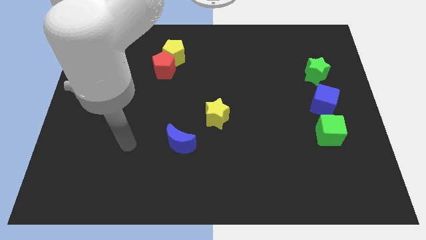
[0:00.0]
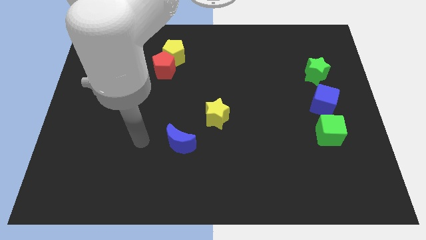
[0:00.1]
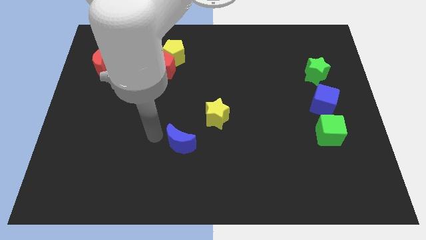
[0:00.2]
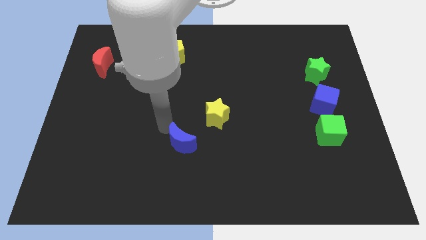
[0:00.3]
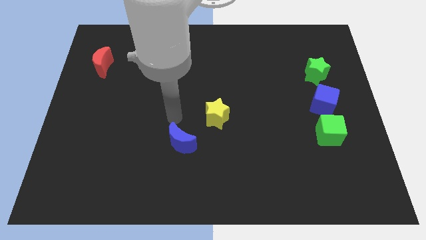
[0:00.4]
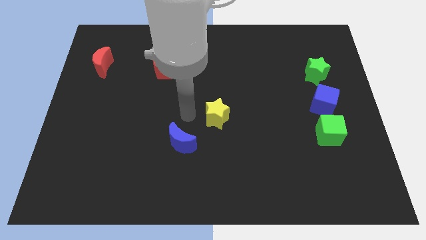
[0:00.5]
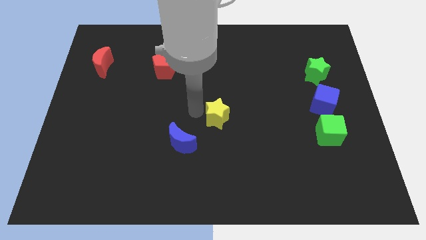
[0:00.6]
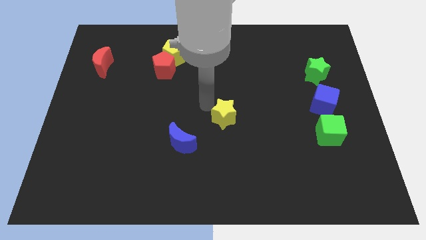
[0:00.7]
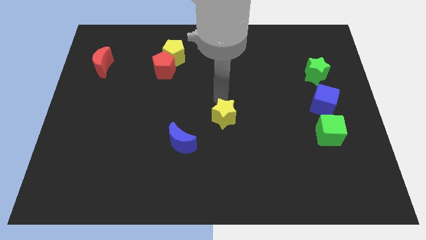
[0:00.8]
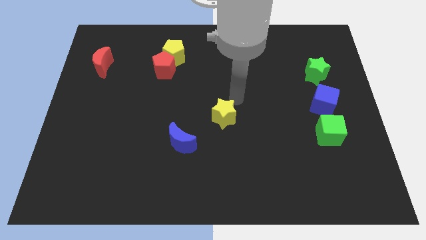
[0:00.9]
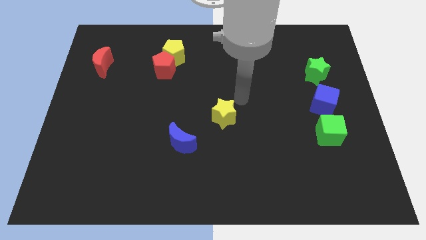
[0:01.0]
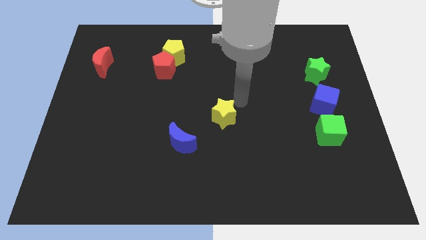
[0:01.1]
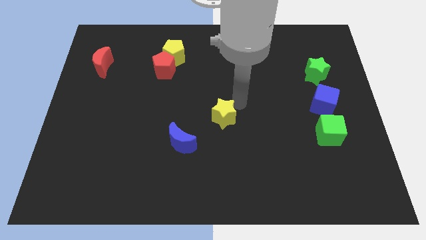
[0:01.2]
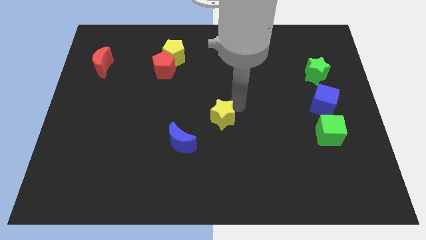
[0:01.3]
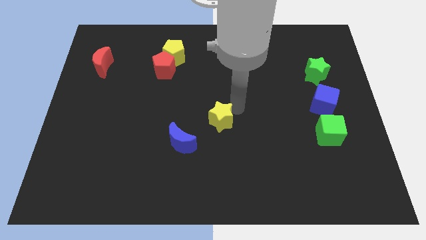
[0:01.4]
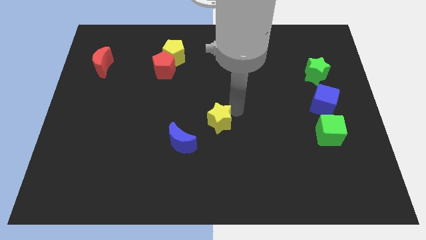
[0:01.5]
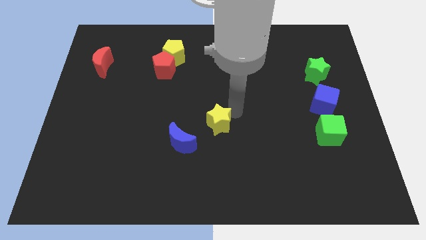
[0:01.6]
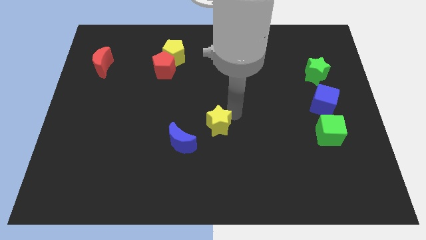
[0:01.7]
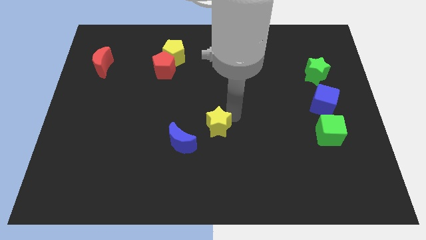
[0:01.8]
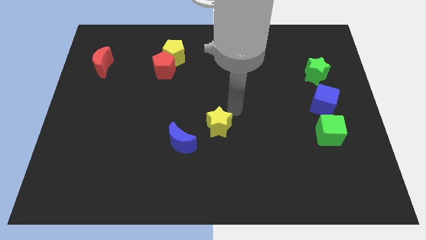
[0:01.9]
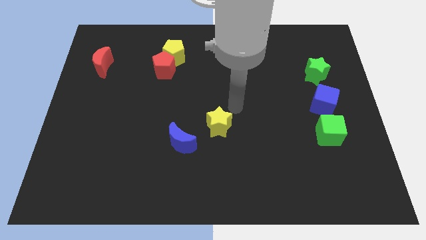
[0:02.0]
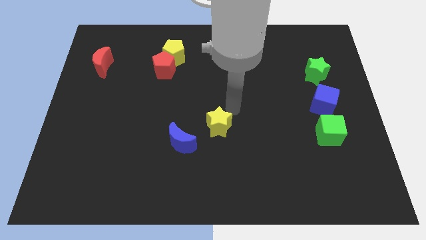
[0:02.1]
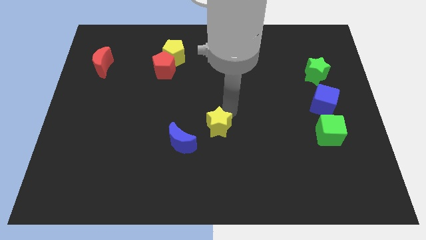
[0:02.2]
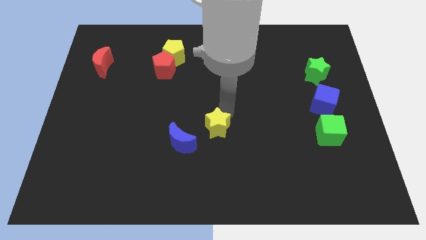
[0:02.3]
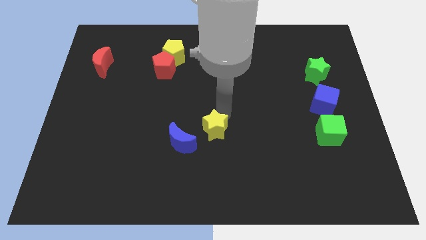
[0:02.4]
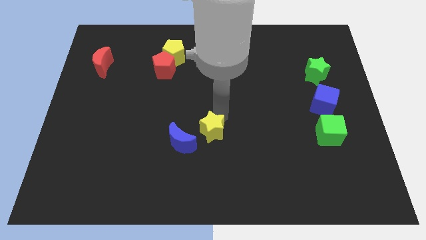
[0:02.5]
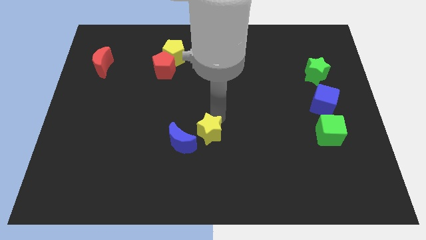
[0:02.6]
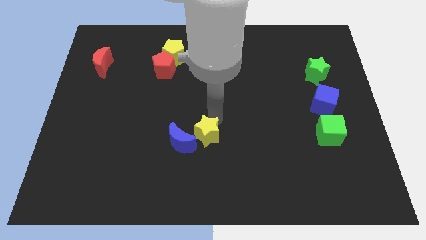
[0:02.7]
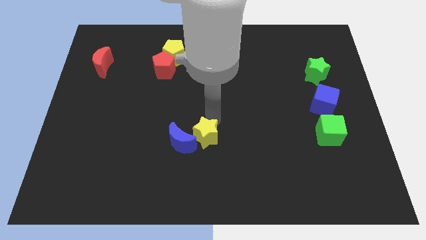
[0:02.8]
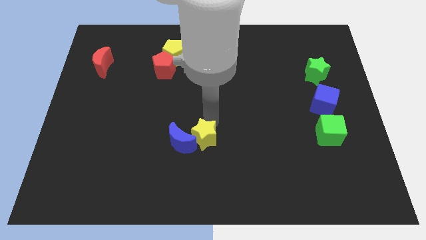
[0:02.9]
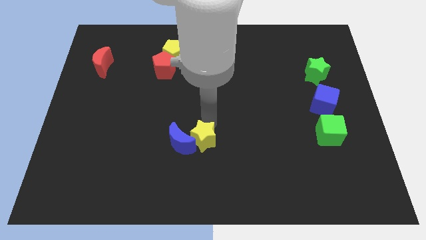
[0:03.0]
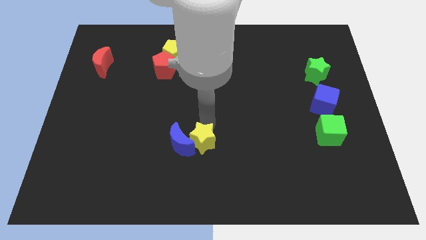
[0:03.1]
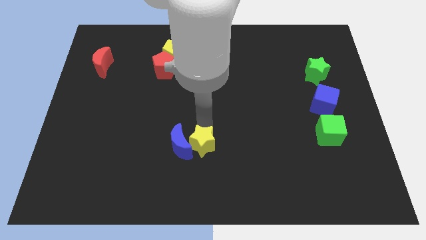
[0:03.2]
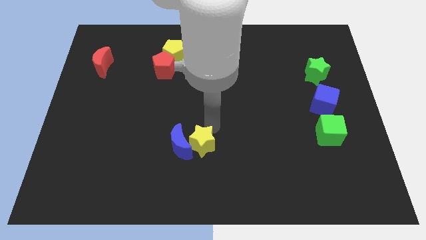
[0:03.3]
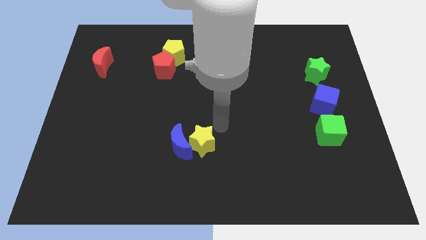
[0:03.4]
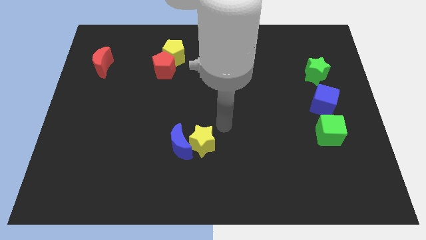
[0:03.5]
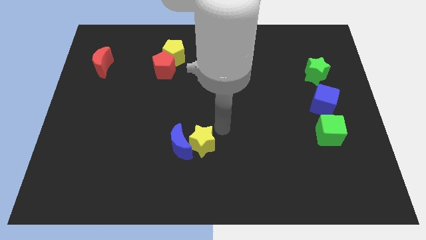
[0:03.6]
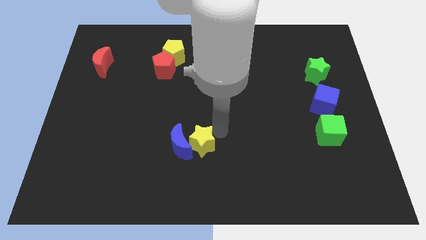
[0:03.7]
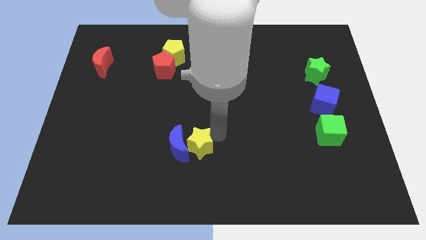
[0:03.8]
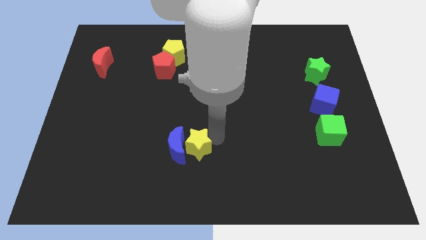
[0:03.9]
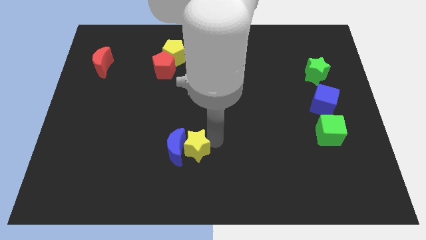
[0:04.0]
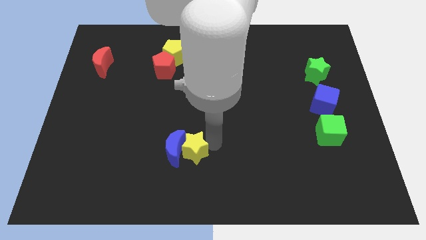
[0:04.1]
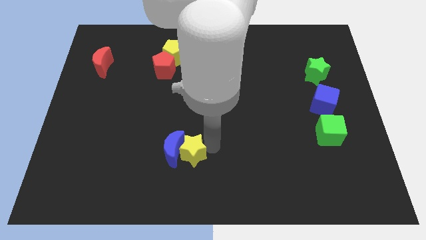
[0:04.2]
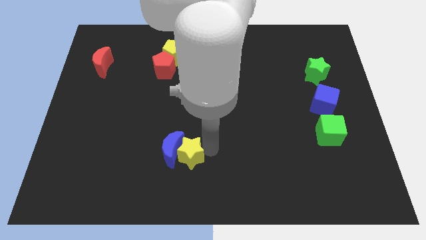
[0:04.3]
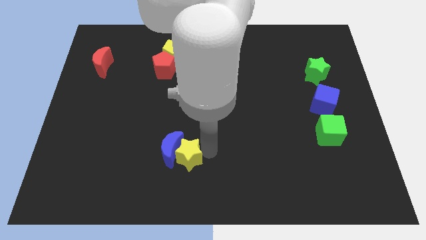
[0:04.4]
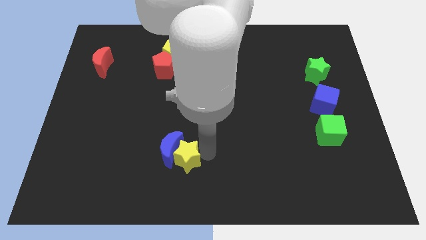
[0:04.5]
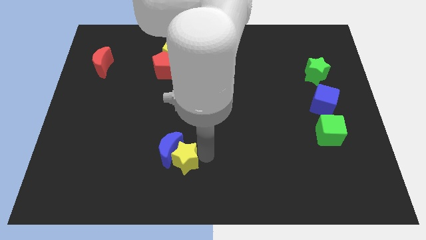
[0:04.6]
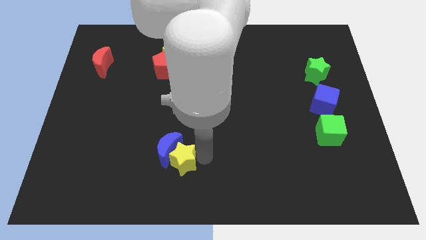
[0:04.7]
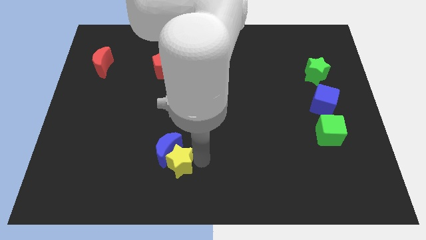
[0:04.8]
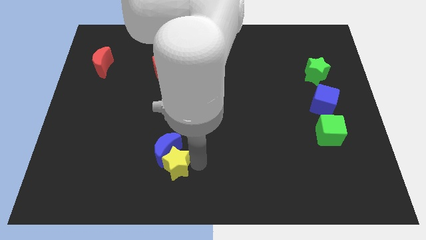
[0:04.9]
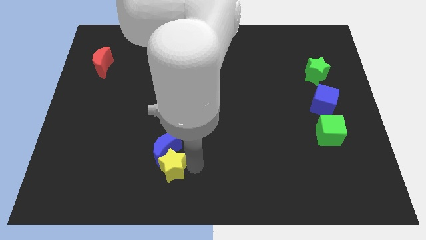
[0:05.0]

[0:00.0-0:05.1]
move the yellow star to the bottom left side of the blue moon

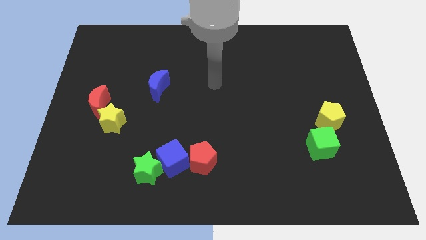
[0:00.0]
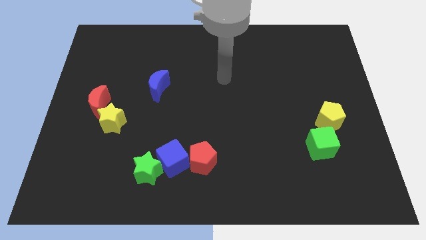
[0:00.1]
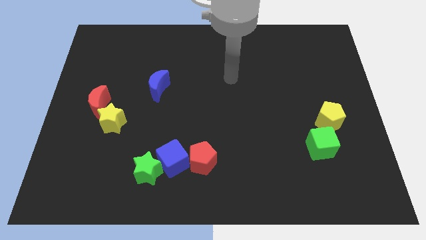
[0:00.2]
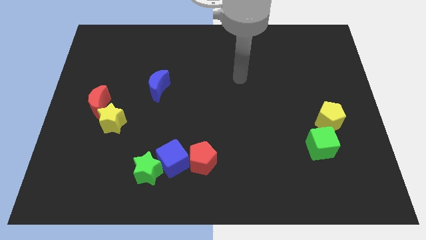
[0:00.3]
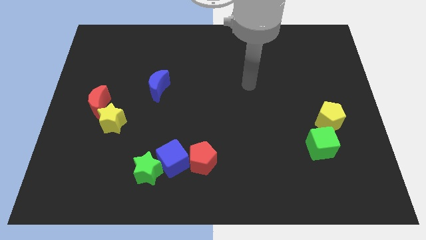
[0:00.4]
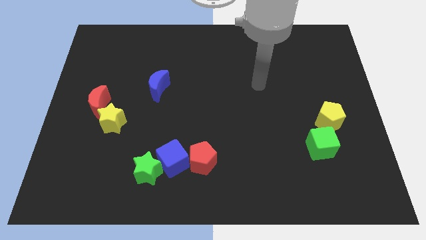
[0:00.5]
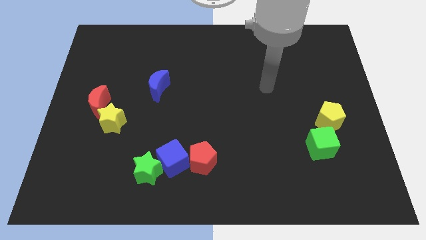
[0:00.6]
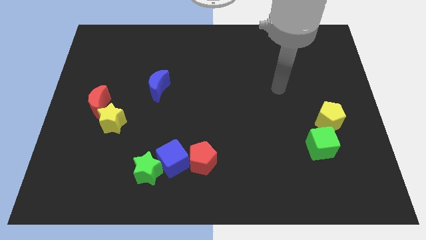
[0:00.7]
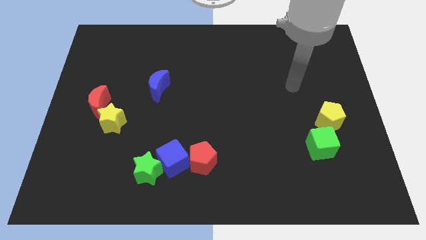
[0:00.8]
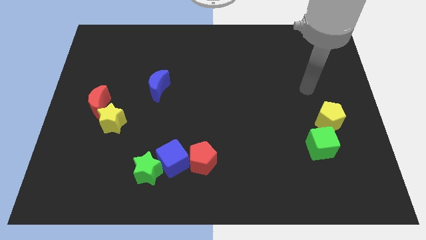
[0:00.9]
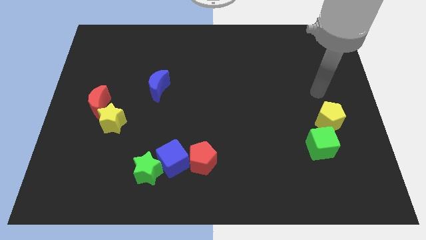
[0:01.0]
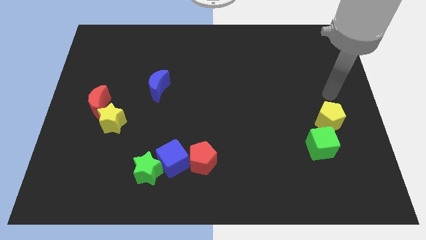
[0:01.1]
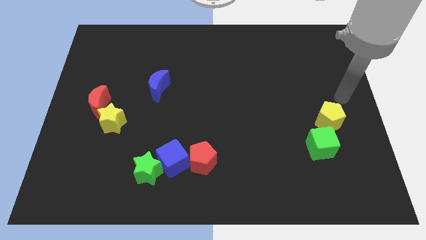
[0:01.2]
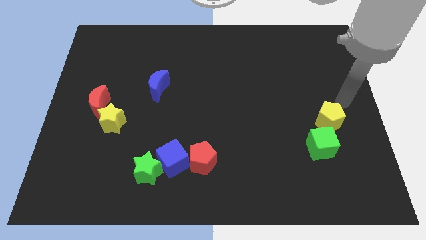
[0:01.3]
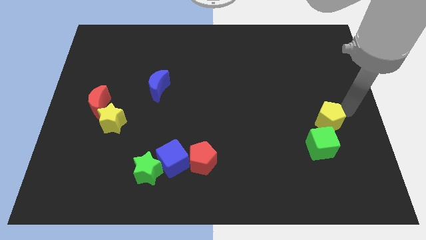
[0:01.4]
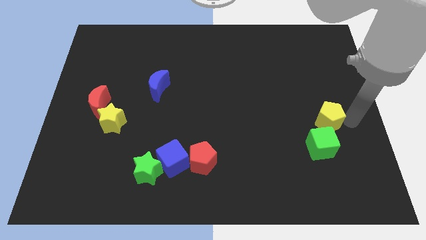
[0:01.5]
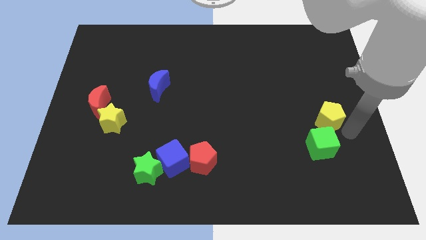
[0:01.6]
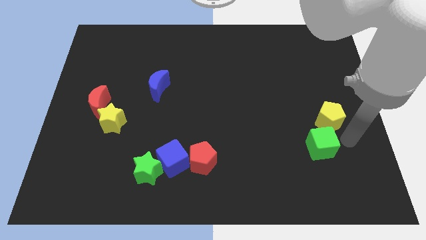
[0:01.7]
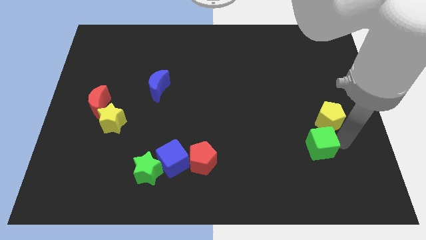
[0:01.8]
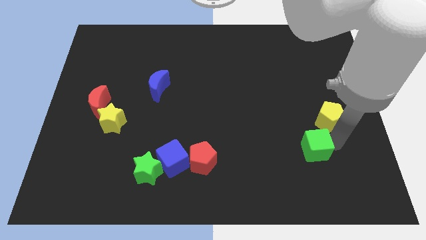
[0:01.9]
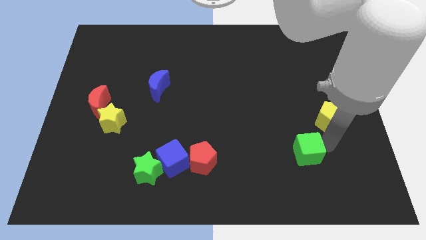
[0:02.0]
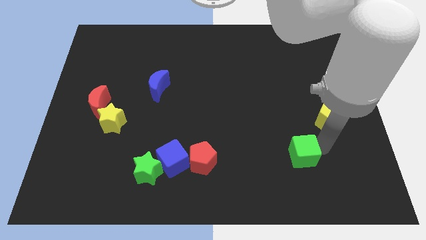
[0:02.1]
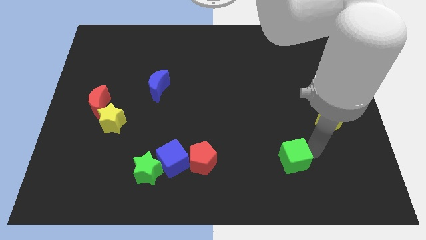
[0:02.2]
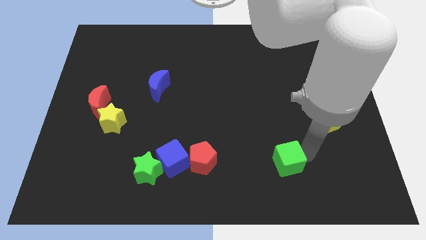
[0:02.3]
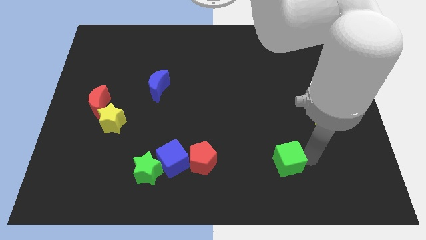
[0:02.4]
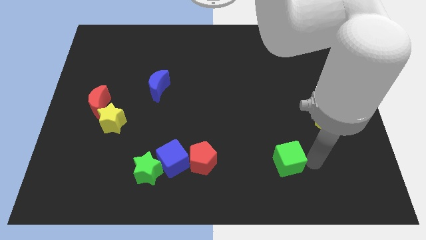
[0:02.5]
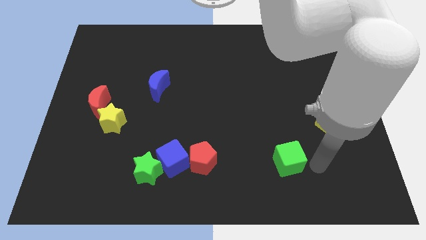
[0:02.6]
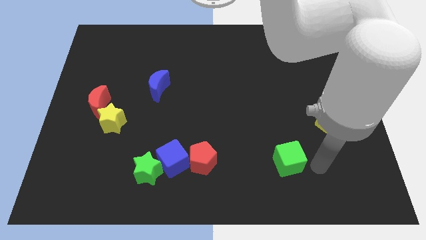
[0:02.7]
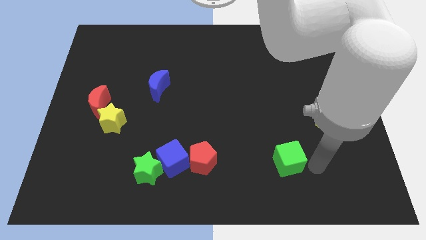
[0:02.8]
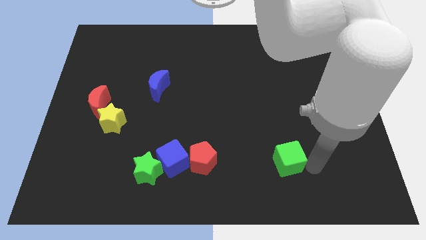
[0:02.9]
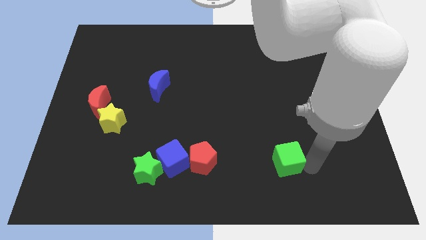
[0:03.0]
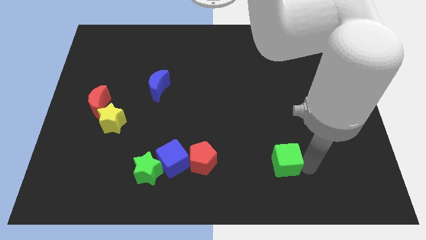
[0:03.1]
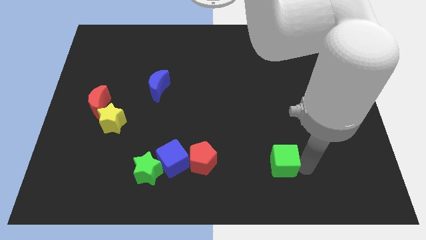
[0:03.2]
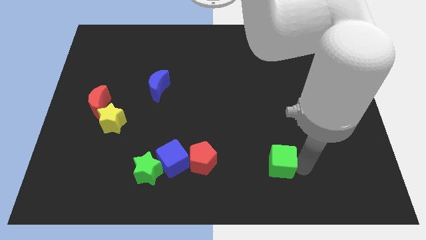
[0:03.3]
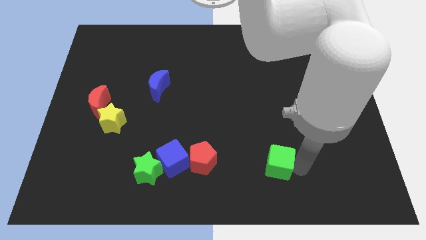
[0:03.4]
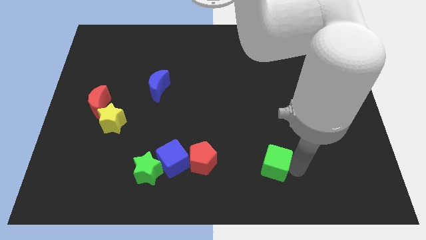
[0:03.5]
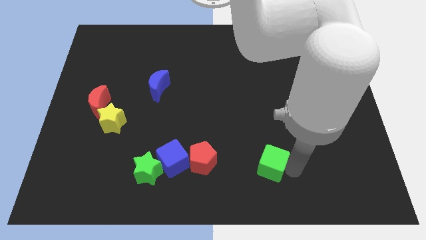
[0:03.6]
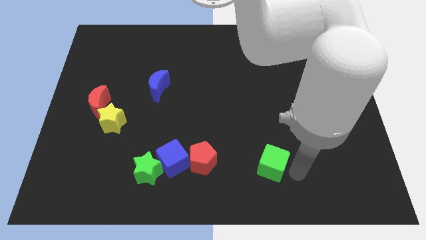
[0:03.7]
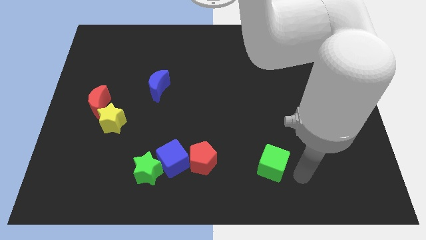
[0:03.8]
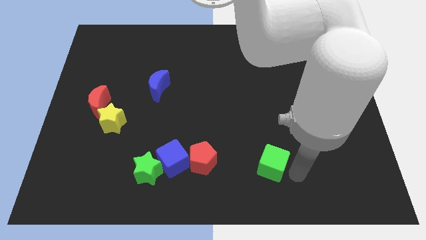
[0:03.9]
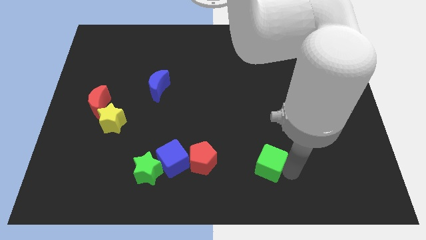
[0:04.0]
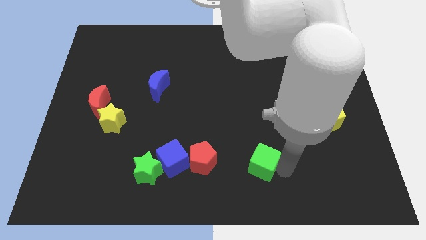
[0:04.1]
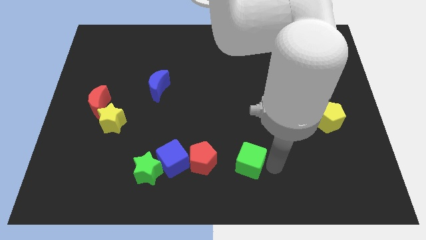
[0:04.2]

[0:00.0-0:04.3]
move the green cube right of the blue cube
